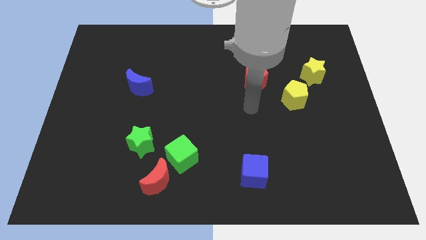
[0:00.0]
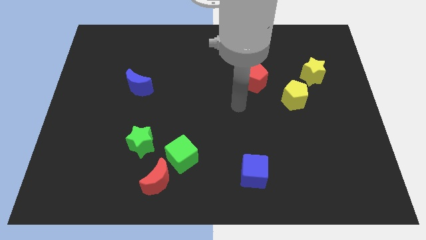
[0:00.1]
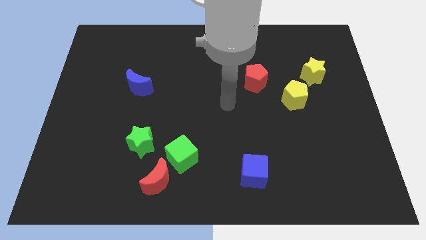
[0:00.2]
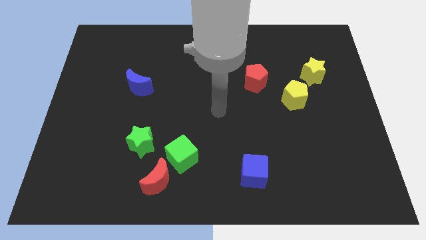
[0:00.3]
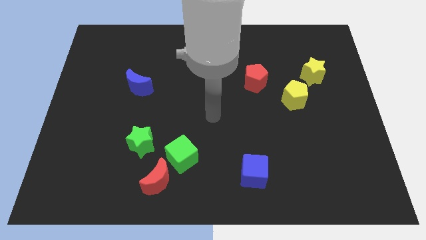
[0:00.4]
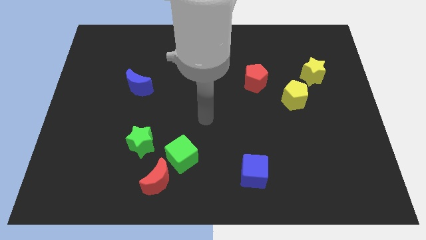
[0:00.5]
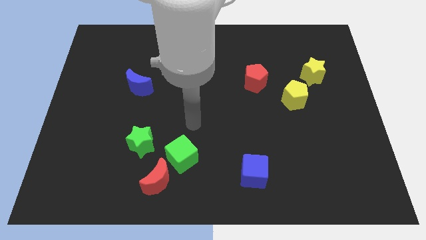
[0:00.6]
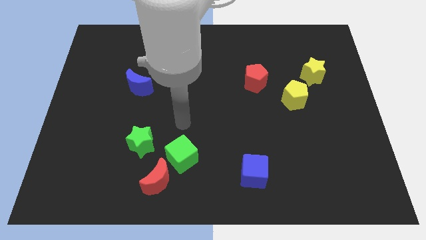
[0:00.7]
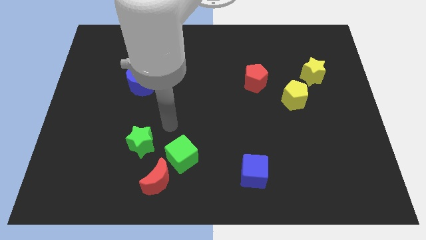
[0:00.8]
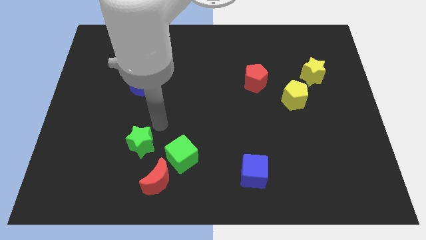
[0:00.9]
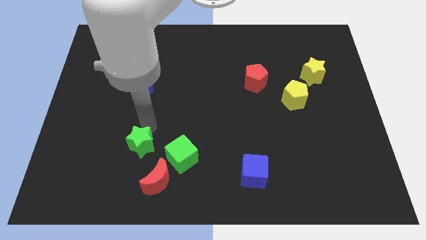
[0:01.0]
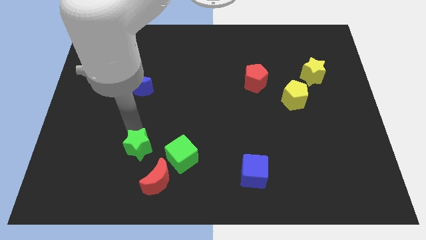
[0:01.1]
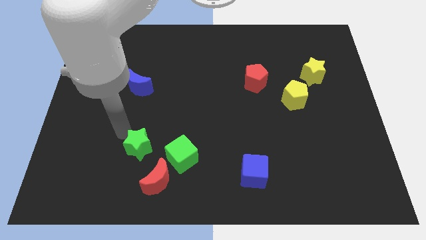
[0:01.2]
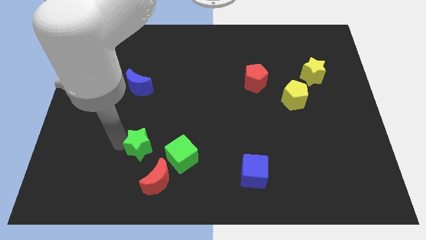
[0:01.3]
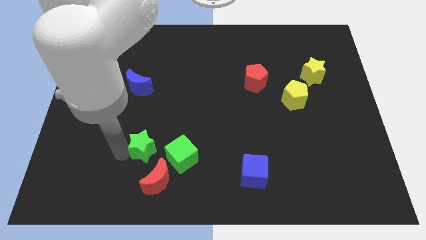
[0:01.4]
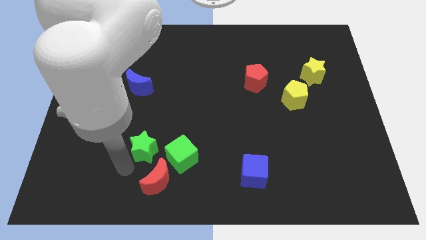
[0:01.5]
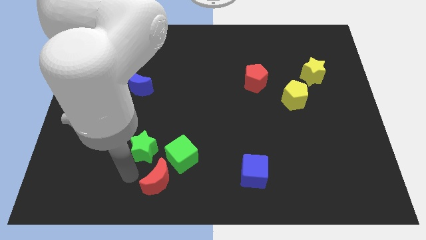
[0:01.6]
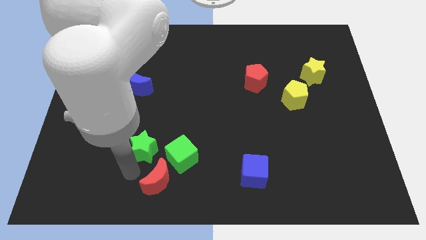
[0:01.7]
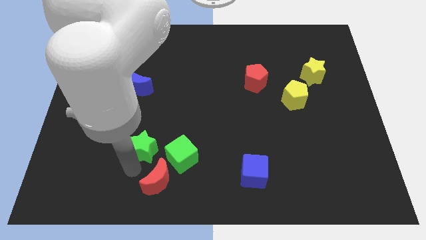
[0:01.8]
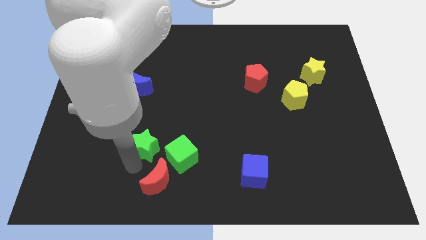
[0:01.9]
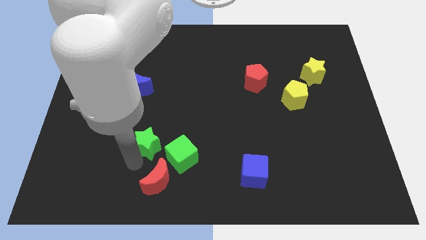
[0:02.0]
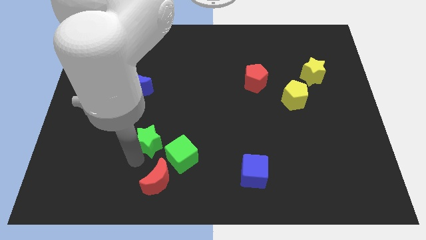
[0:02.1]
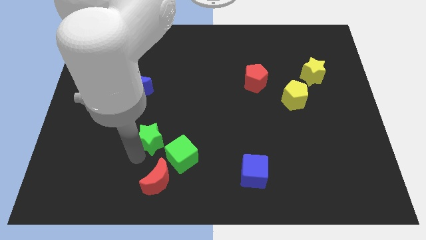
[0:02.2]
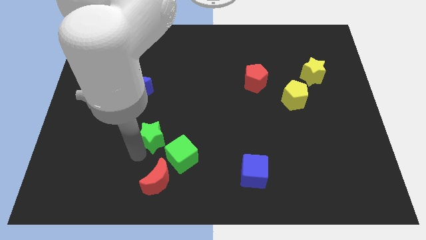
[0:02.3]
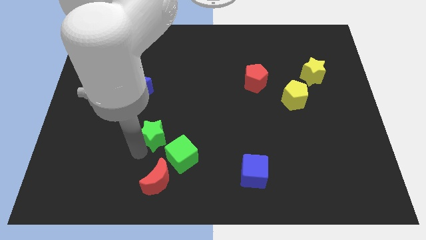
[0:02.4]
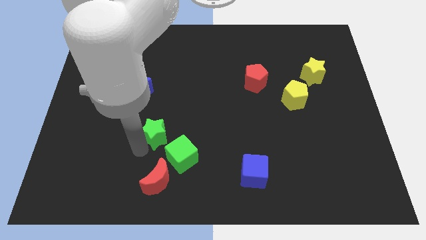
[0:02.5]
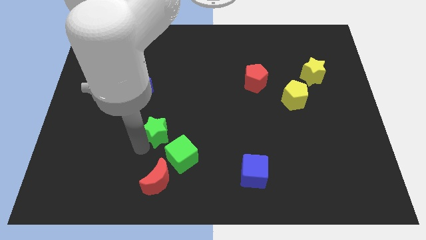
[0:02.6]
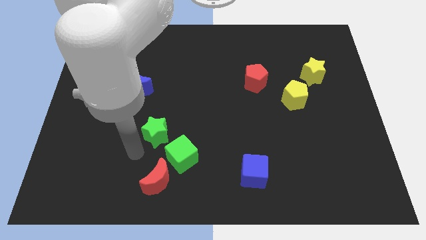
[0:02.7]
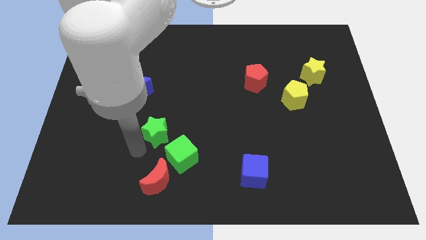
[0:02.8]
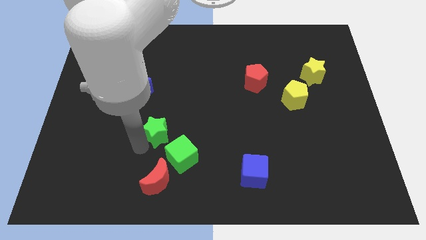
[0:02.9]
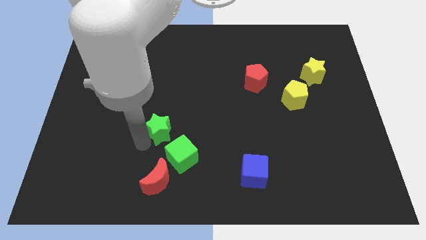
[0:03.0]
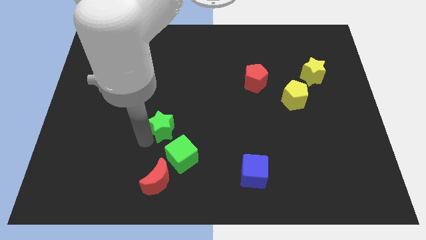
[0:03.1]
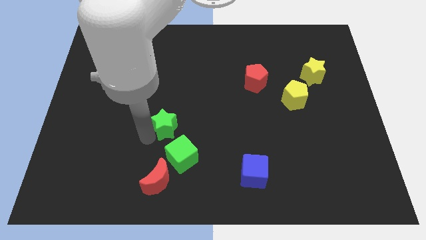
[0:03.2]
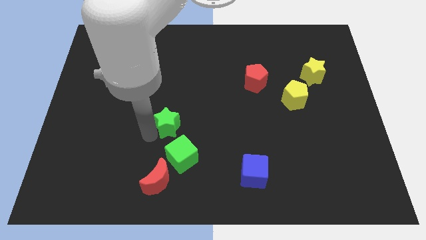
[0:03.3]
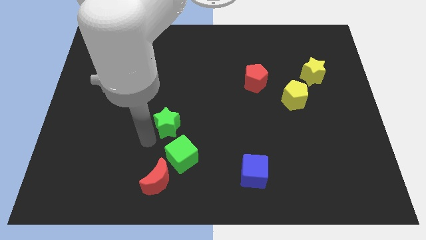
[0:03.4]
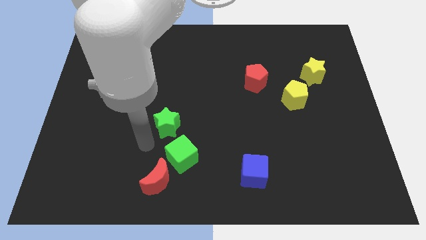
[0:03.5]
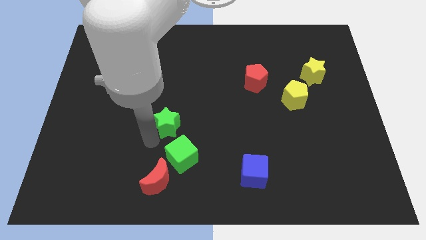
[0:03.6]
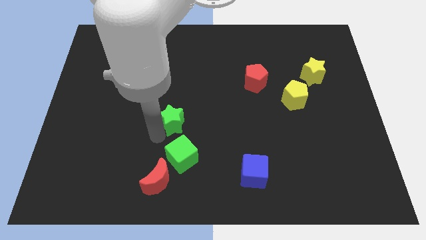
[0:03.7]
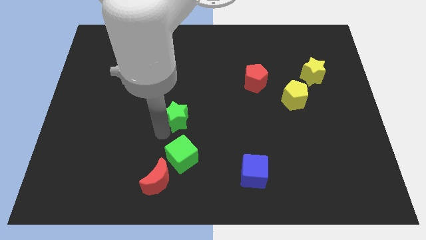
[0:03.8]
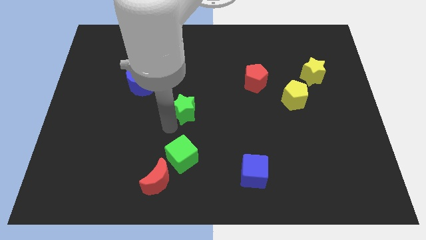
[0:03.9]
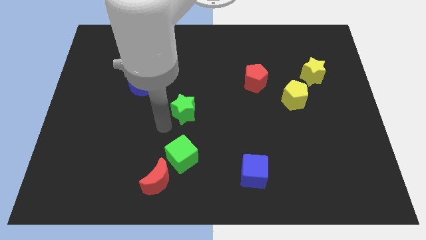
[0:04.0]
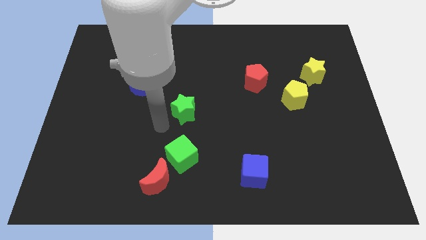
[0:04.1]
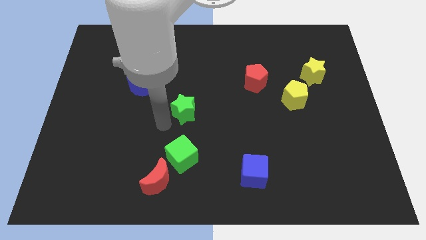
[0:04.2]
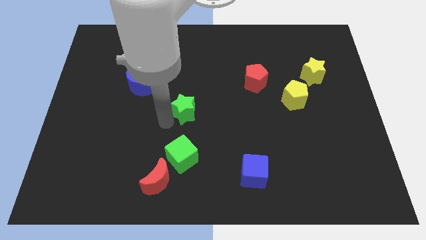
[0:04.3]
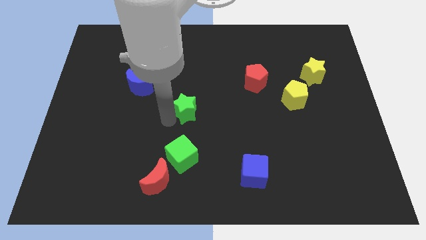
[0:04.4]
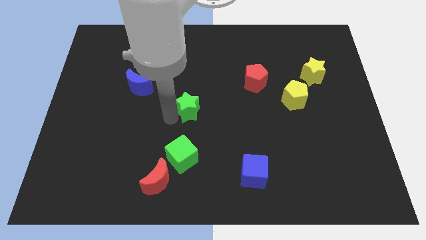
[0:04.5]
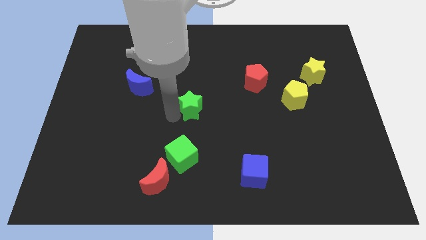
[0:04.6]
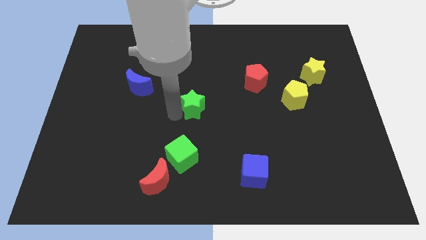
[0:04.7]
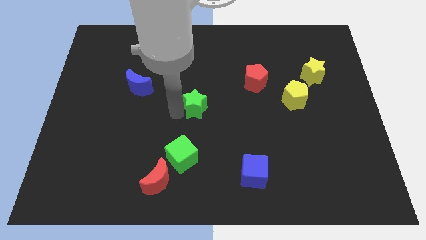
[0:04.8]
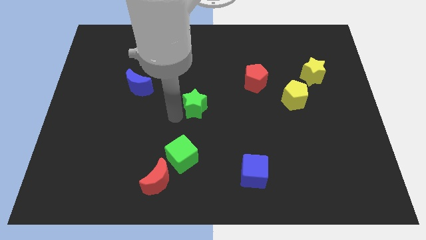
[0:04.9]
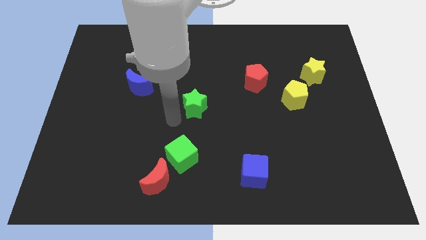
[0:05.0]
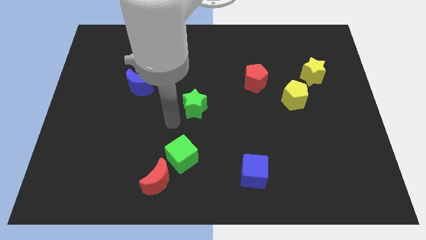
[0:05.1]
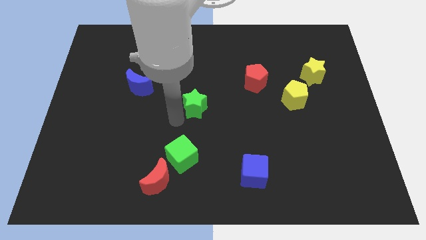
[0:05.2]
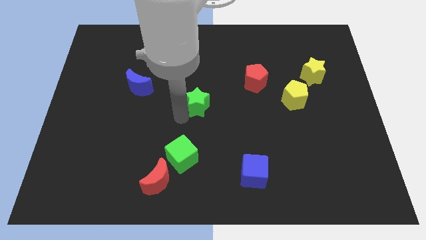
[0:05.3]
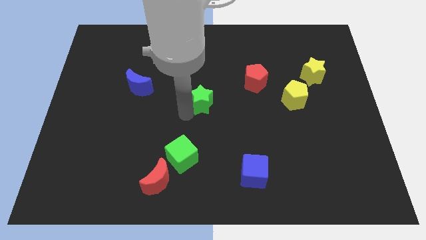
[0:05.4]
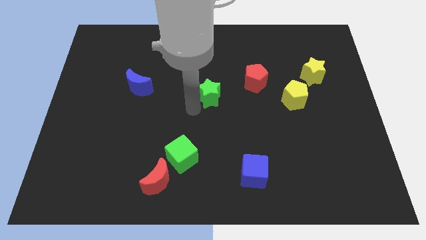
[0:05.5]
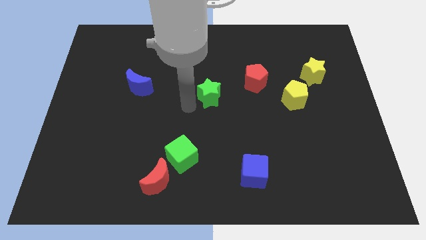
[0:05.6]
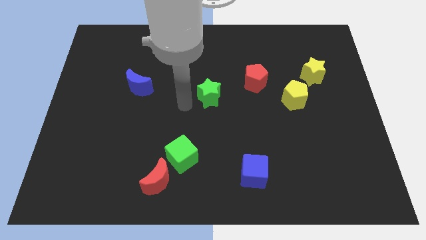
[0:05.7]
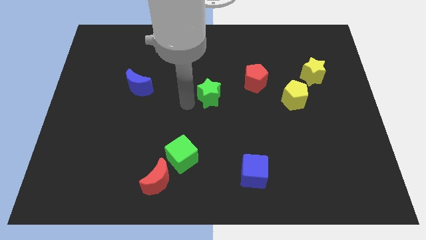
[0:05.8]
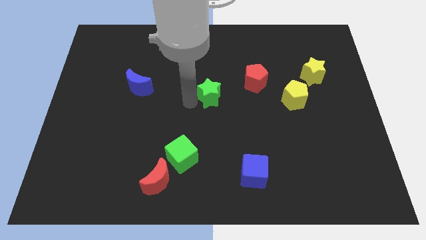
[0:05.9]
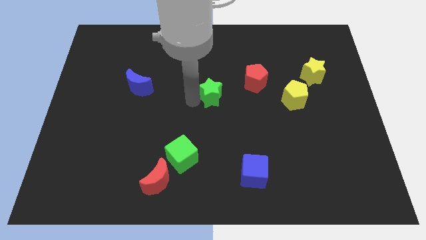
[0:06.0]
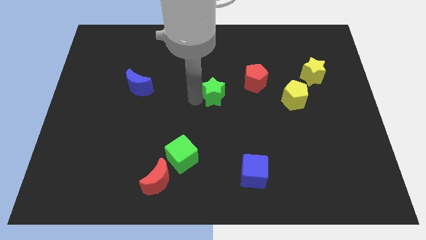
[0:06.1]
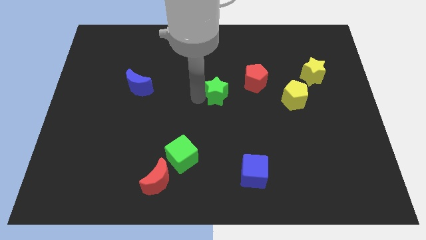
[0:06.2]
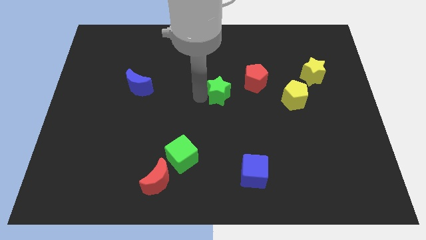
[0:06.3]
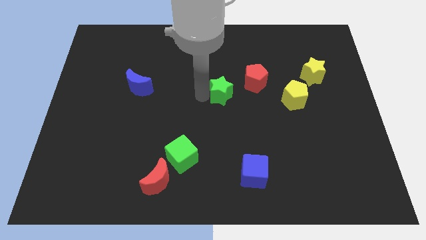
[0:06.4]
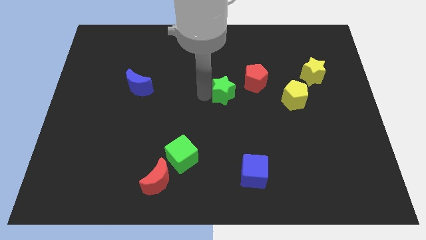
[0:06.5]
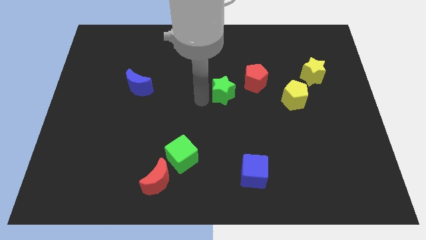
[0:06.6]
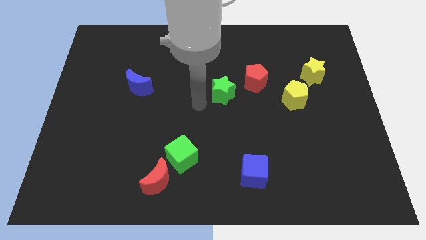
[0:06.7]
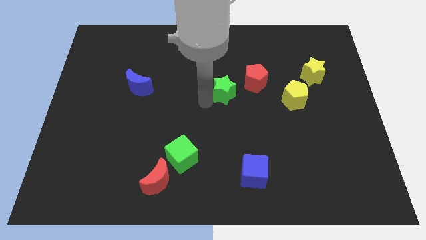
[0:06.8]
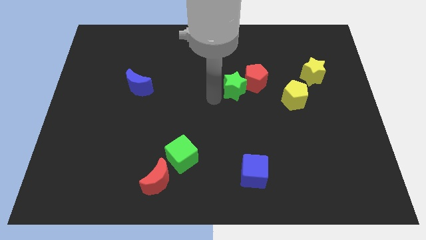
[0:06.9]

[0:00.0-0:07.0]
slide the green star towards the red pentagon

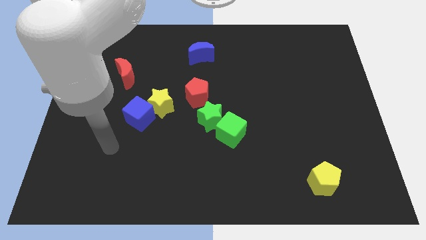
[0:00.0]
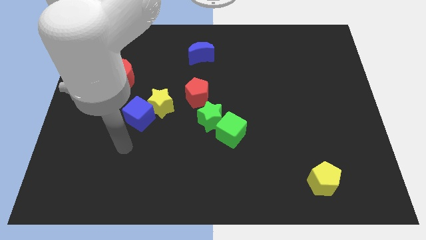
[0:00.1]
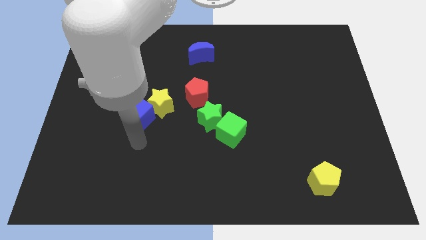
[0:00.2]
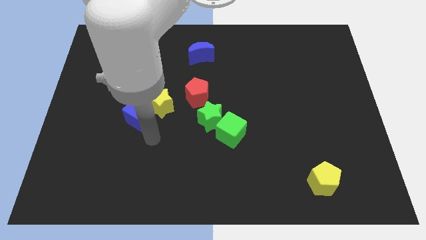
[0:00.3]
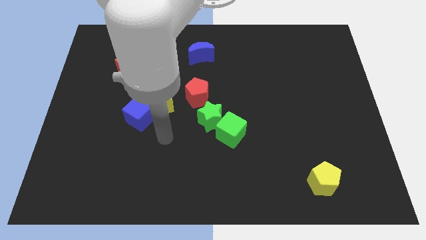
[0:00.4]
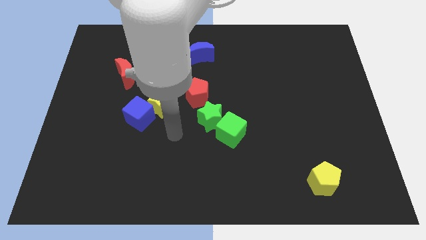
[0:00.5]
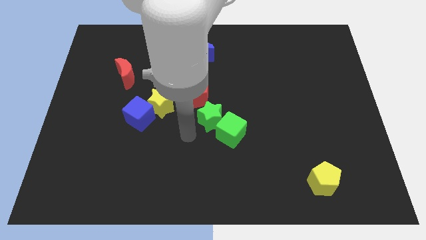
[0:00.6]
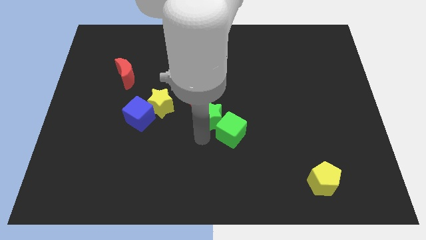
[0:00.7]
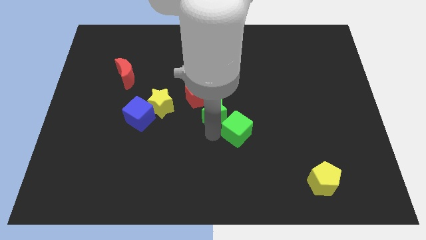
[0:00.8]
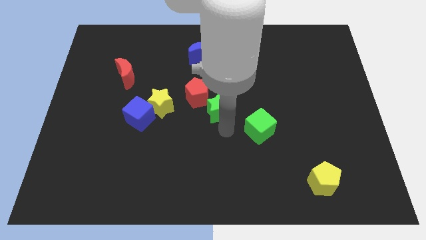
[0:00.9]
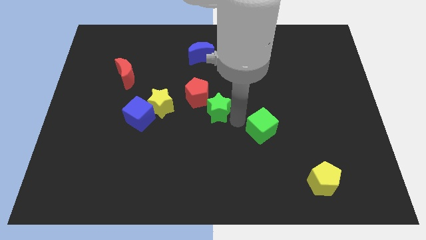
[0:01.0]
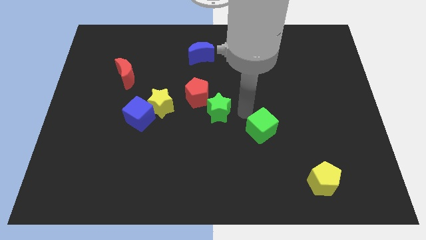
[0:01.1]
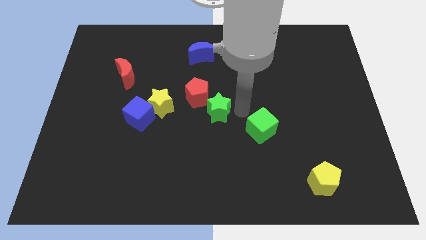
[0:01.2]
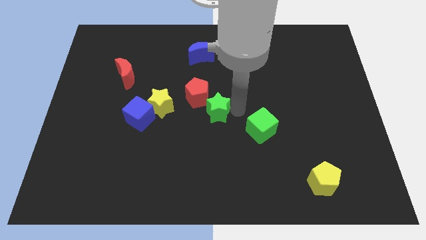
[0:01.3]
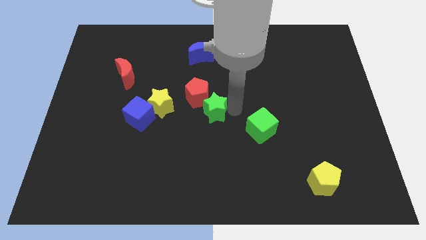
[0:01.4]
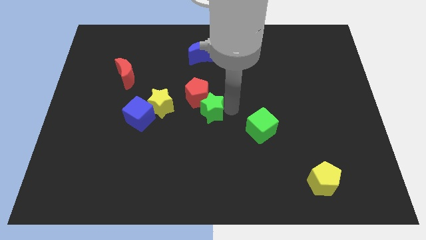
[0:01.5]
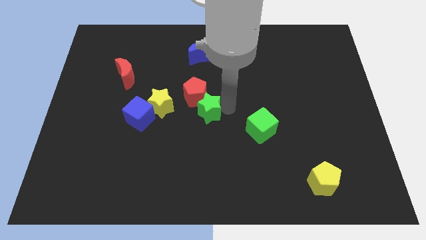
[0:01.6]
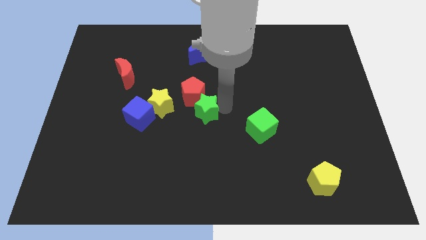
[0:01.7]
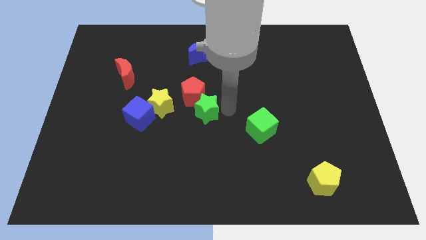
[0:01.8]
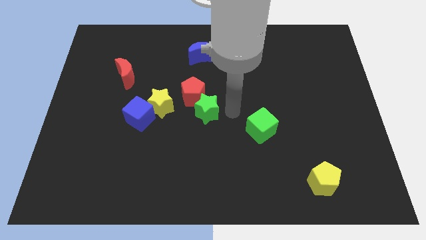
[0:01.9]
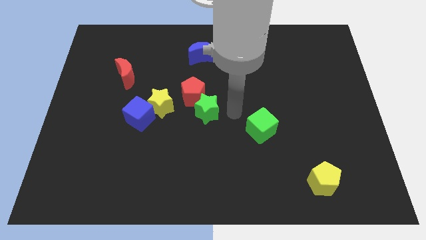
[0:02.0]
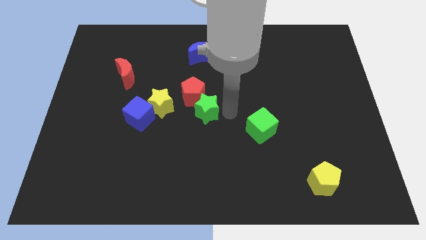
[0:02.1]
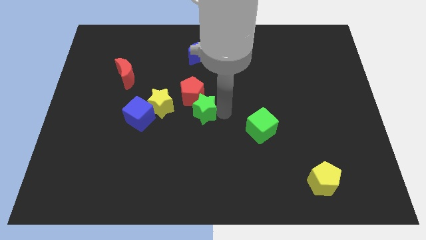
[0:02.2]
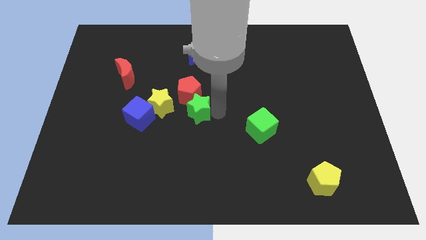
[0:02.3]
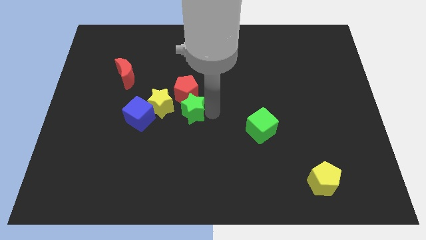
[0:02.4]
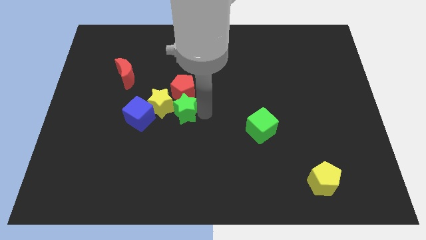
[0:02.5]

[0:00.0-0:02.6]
move the green star close to the yellow star
